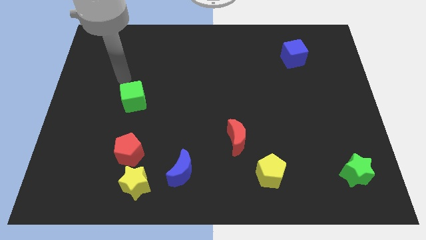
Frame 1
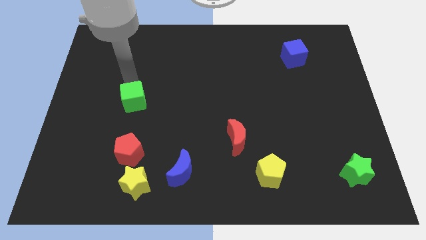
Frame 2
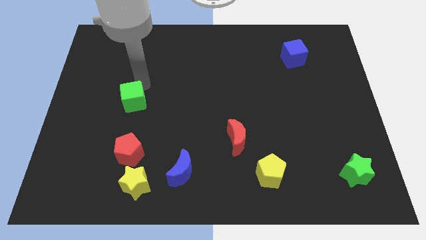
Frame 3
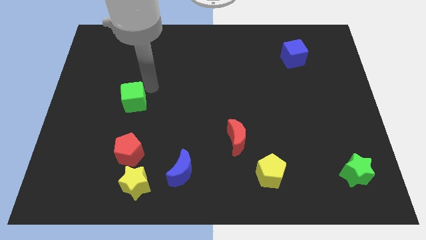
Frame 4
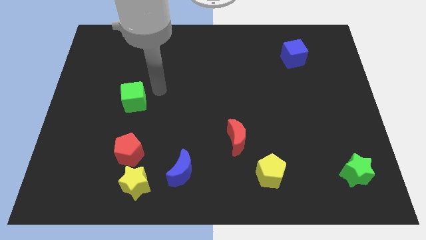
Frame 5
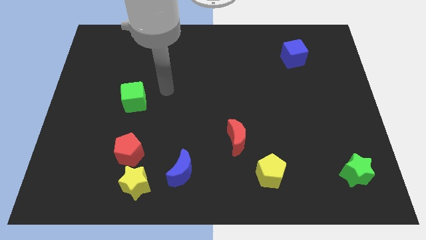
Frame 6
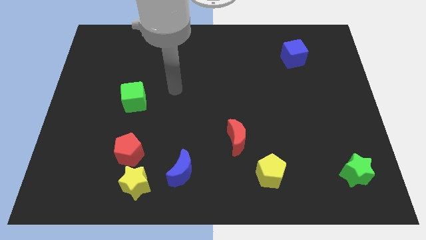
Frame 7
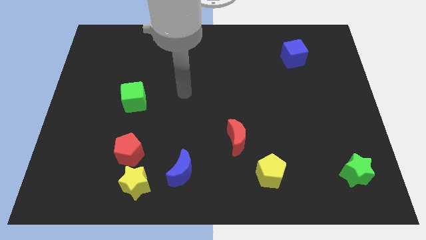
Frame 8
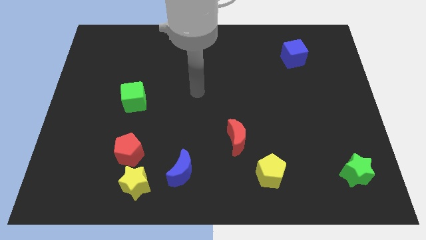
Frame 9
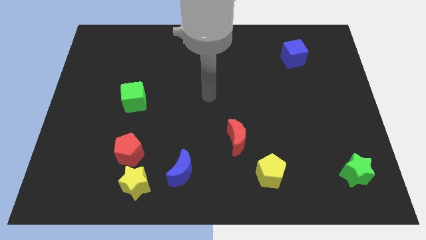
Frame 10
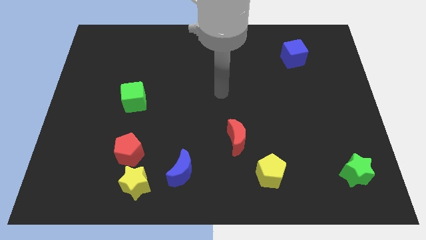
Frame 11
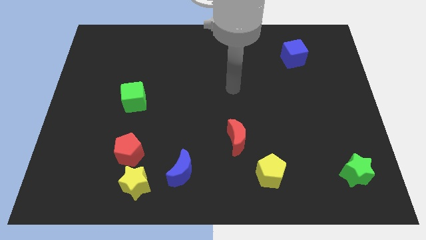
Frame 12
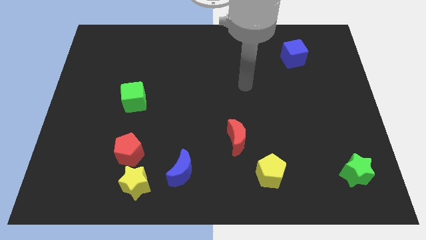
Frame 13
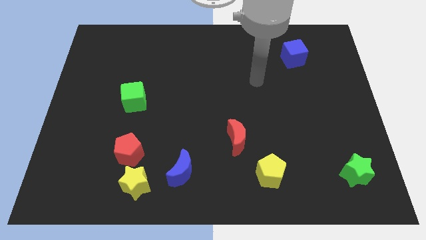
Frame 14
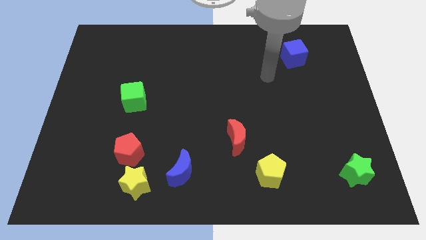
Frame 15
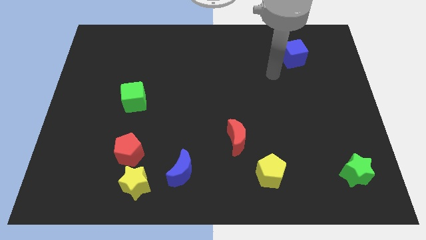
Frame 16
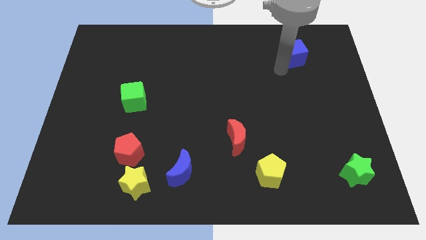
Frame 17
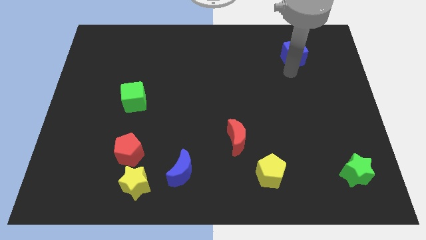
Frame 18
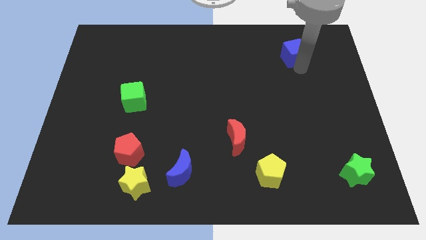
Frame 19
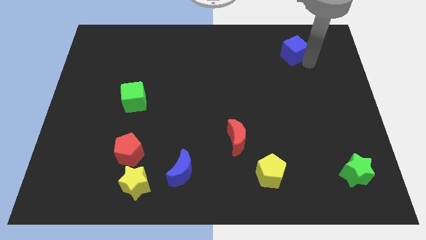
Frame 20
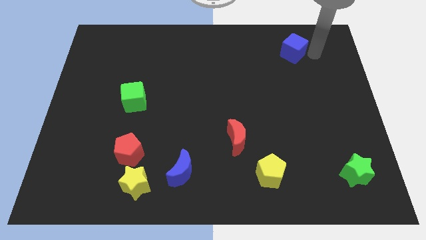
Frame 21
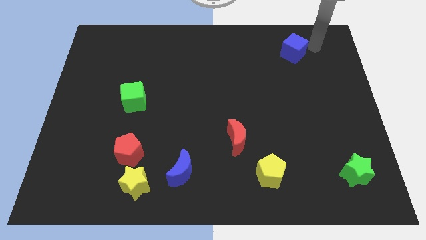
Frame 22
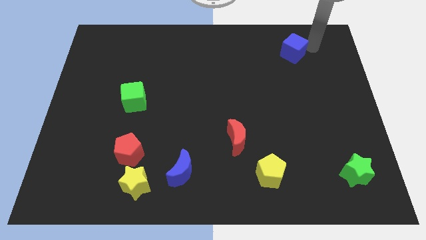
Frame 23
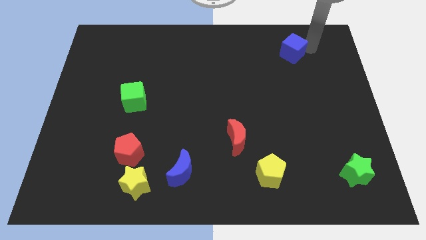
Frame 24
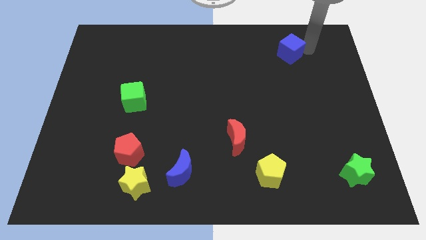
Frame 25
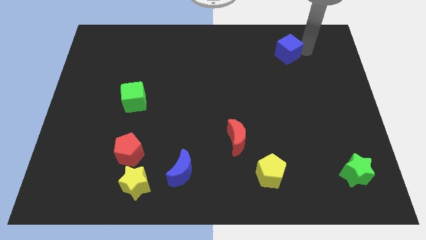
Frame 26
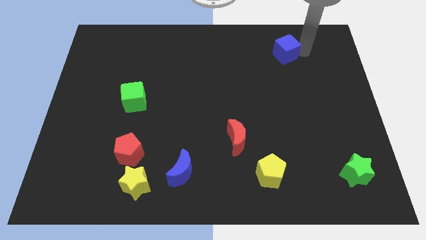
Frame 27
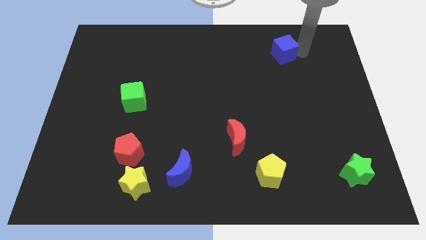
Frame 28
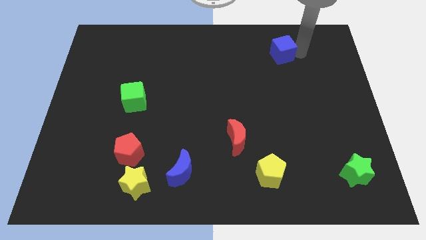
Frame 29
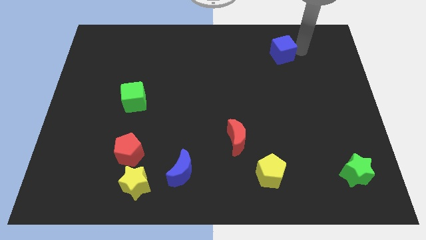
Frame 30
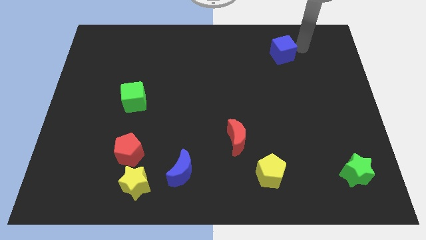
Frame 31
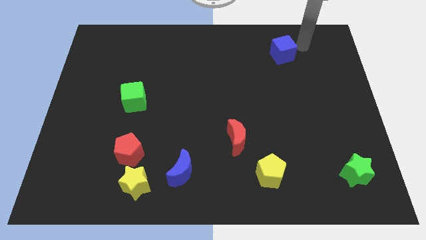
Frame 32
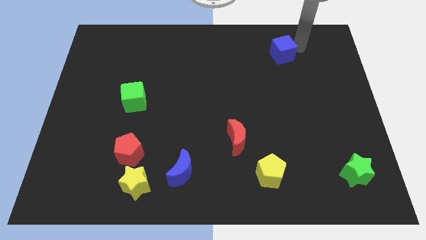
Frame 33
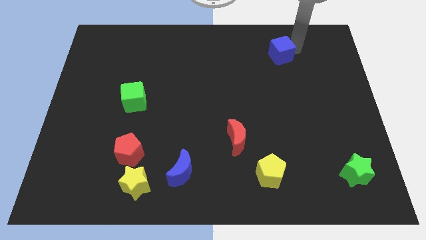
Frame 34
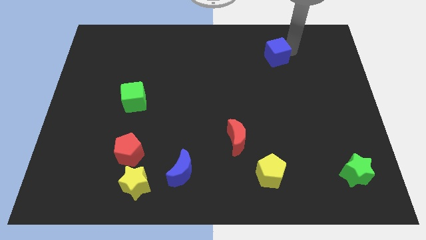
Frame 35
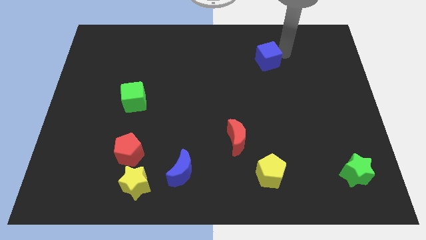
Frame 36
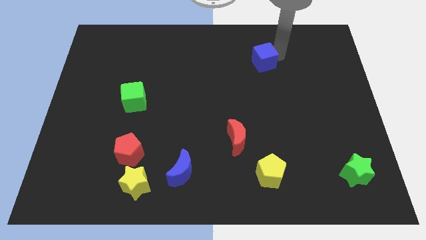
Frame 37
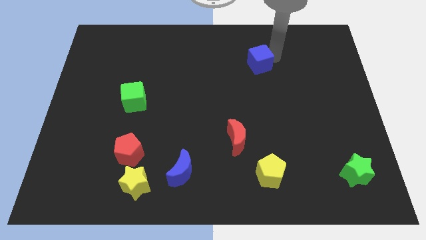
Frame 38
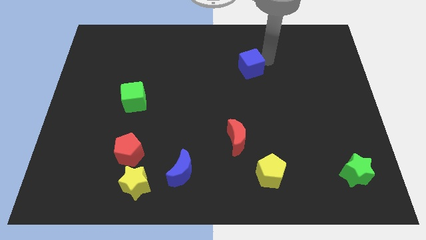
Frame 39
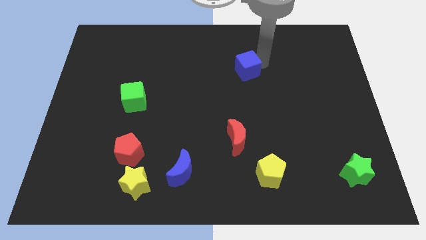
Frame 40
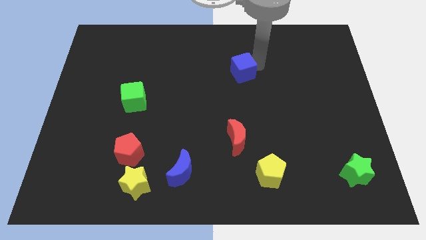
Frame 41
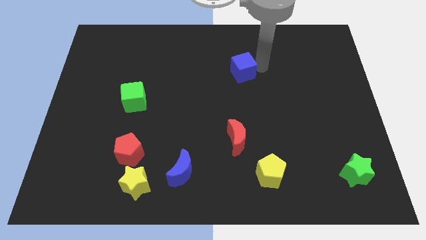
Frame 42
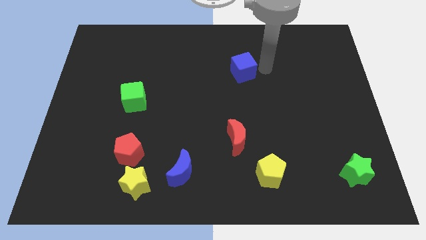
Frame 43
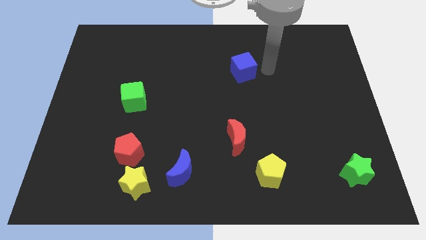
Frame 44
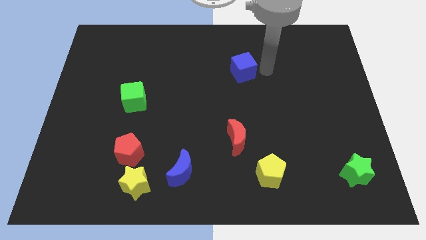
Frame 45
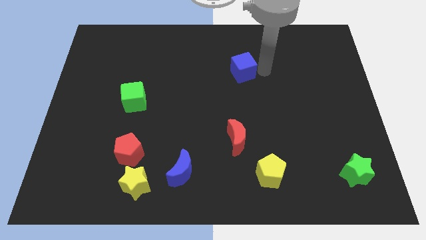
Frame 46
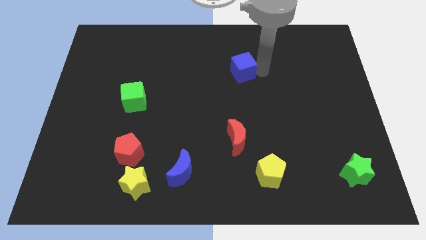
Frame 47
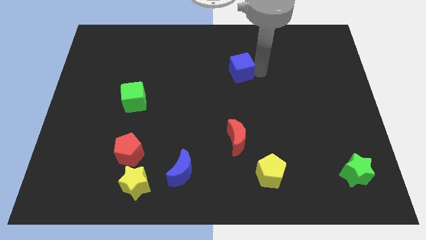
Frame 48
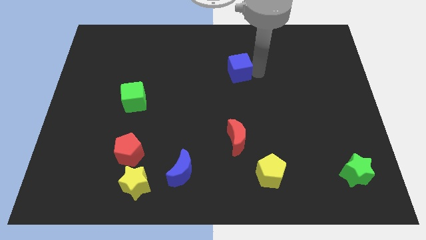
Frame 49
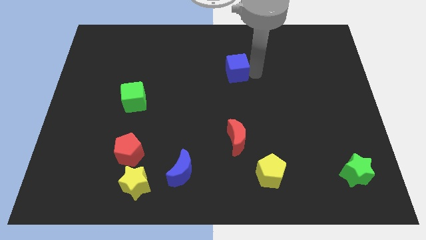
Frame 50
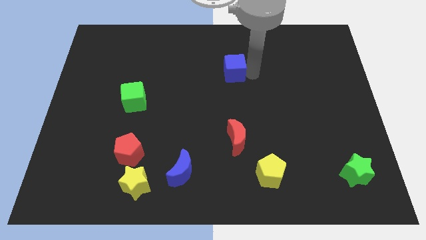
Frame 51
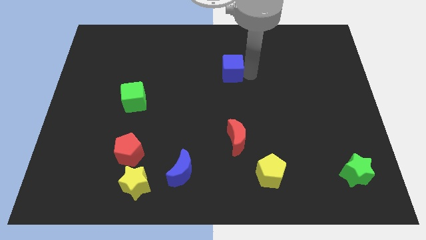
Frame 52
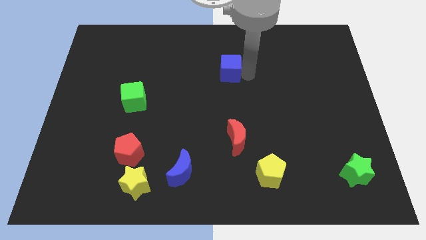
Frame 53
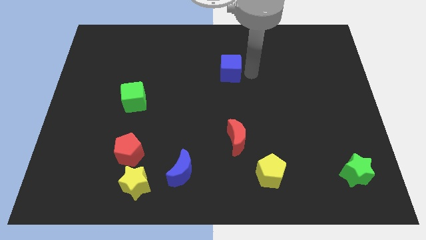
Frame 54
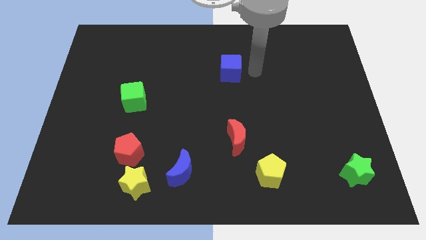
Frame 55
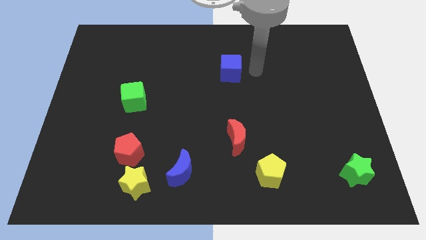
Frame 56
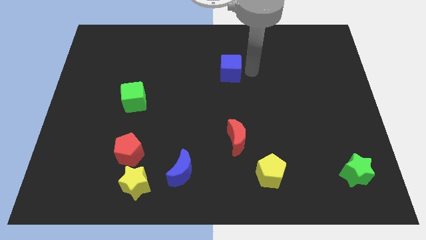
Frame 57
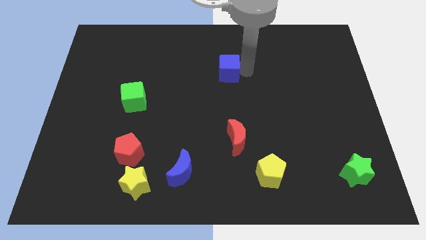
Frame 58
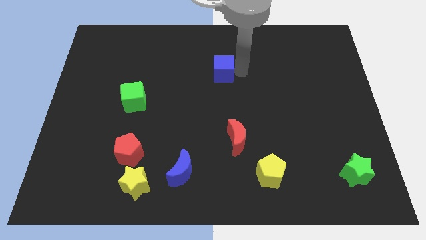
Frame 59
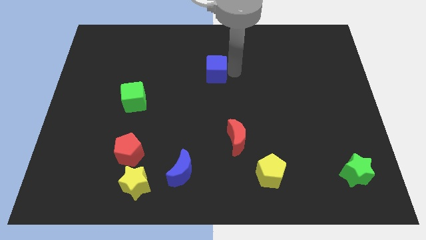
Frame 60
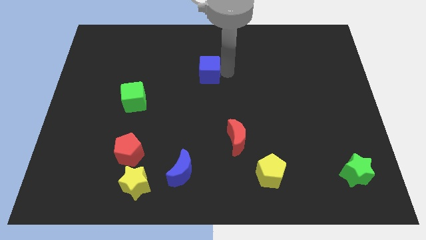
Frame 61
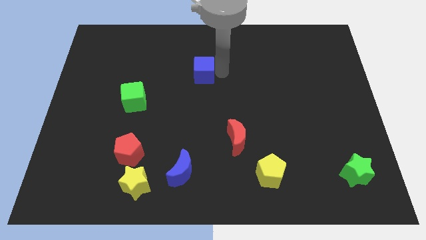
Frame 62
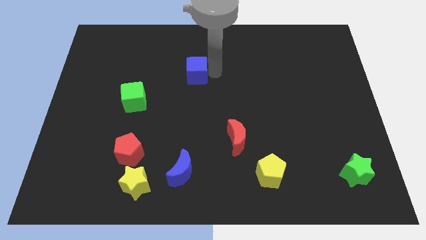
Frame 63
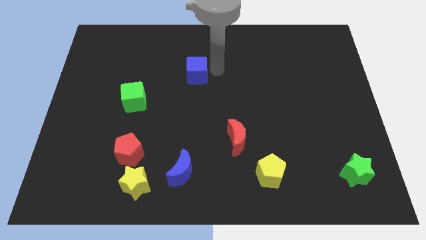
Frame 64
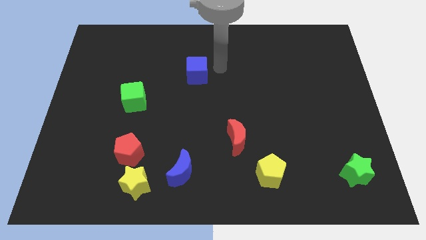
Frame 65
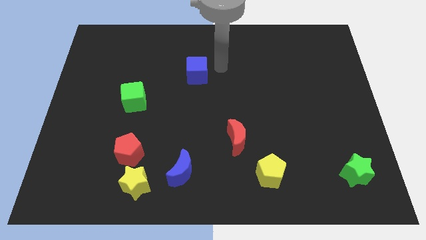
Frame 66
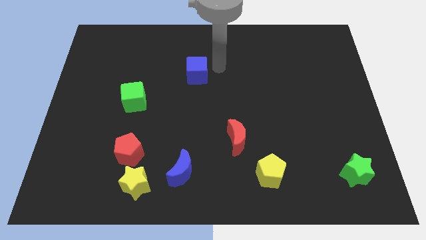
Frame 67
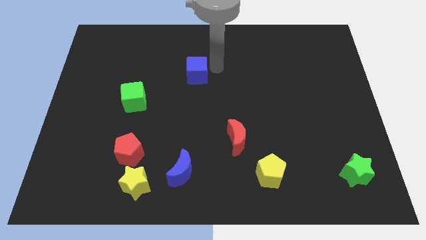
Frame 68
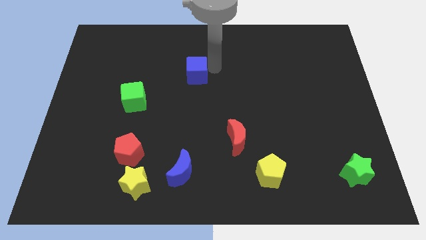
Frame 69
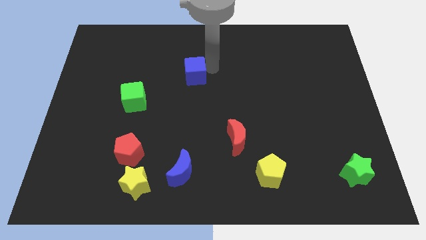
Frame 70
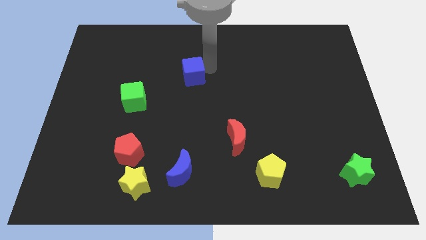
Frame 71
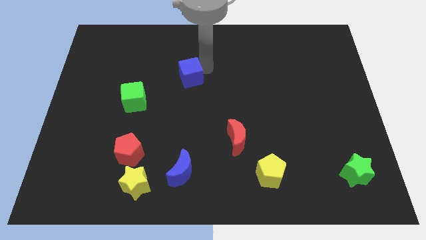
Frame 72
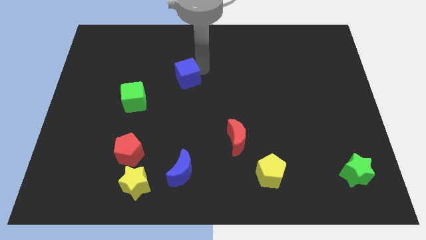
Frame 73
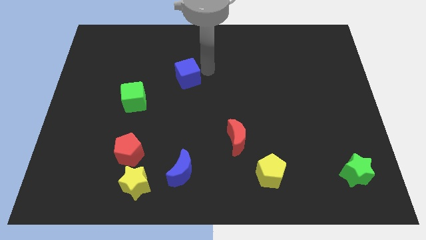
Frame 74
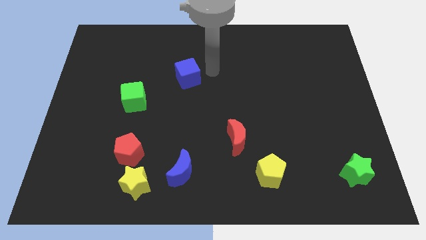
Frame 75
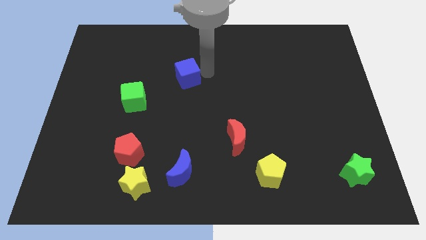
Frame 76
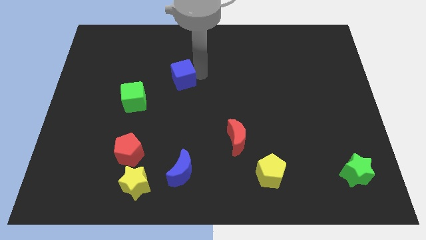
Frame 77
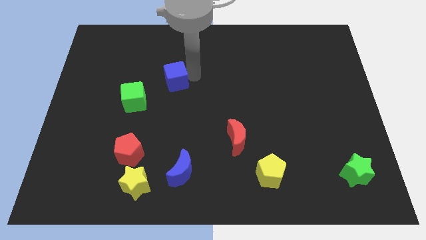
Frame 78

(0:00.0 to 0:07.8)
slide the blue cube to the top right of the green cube
